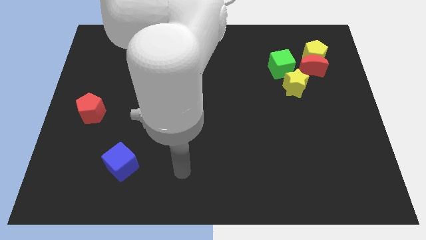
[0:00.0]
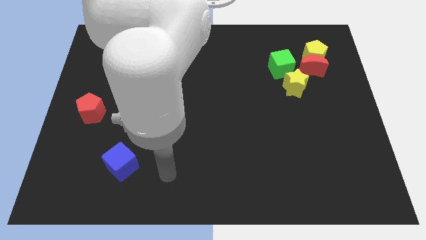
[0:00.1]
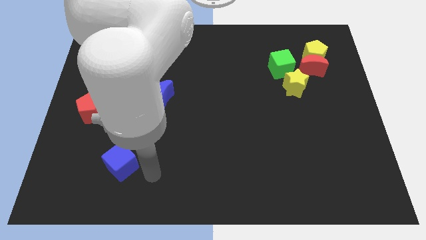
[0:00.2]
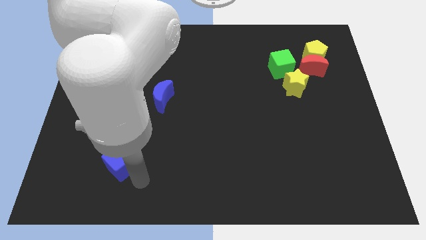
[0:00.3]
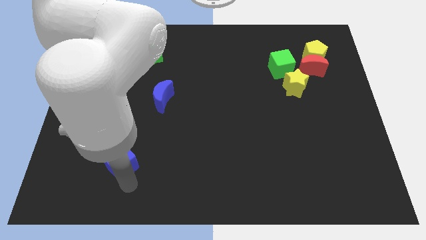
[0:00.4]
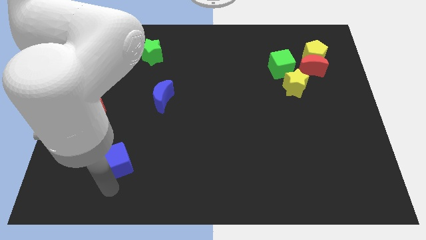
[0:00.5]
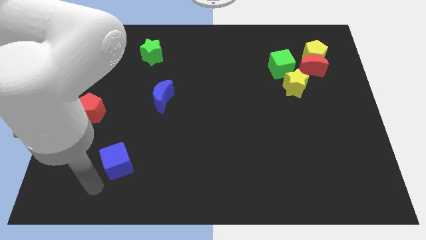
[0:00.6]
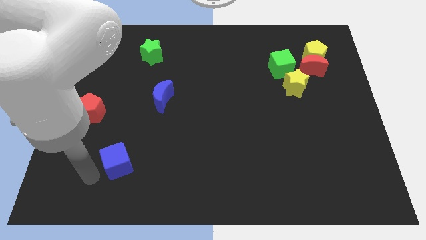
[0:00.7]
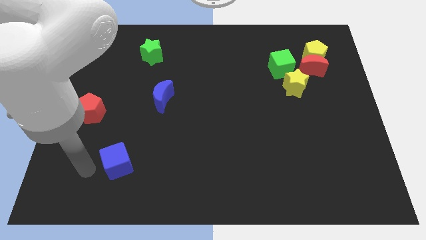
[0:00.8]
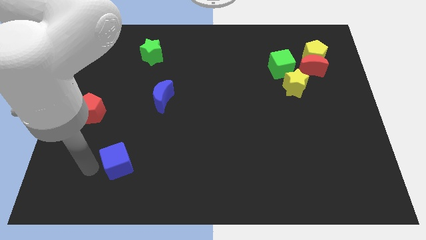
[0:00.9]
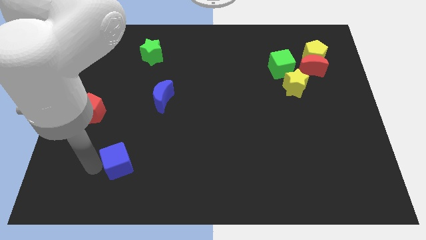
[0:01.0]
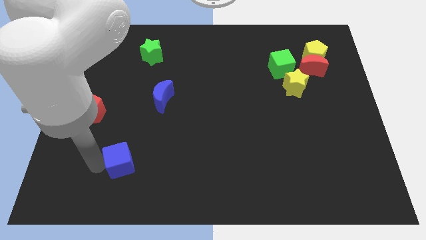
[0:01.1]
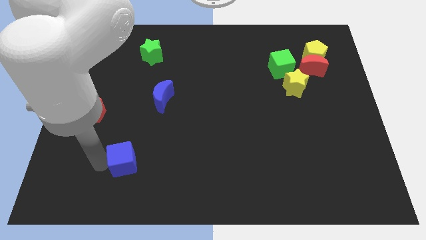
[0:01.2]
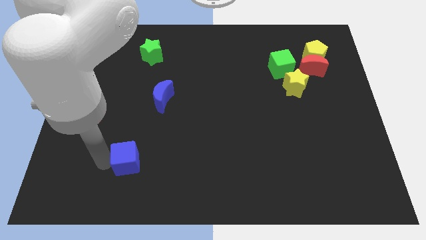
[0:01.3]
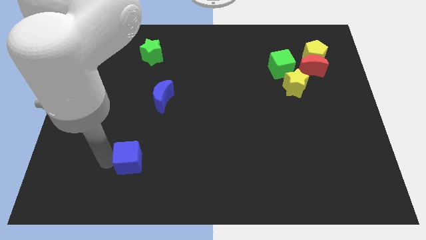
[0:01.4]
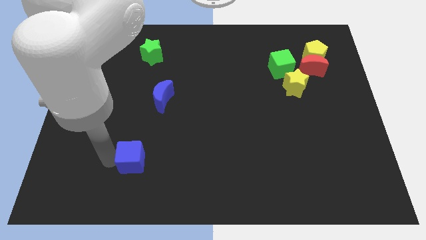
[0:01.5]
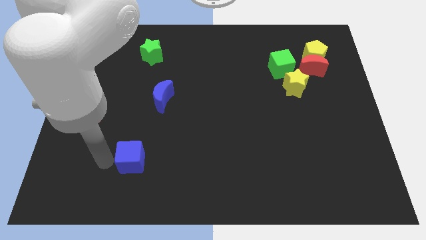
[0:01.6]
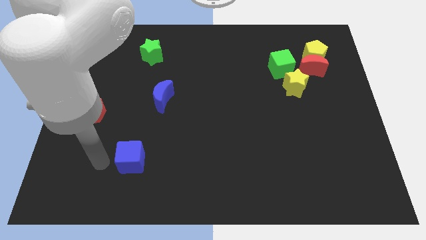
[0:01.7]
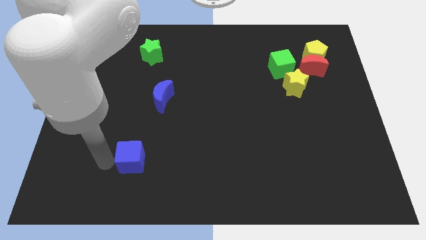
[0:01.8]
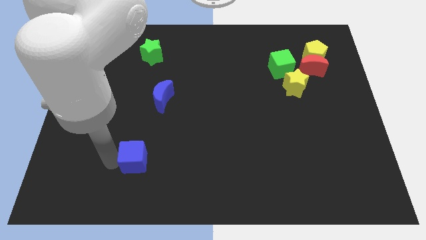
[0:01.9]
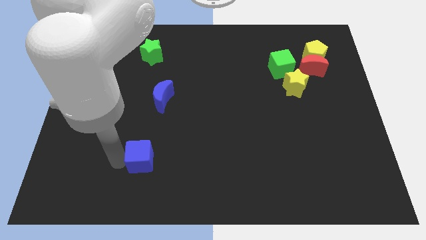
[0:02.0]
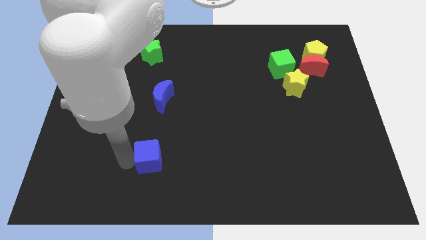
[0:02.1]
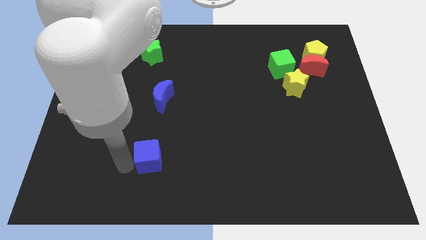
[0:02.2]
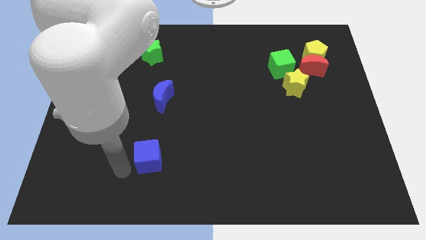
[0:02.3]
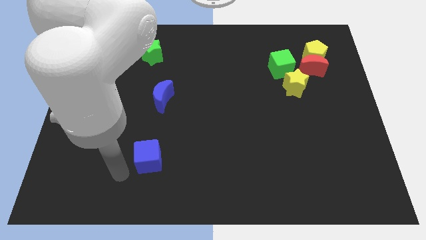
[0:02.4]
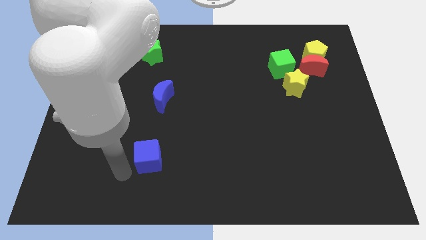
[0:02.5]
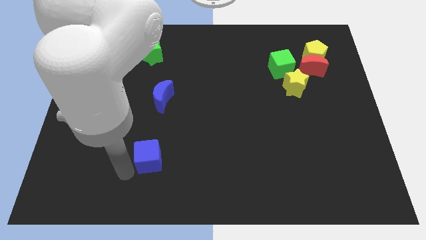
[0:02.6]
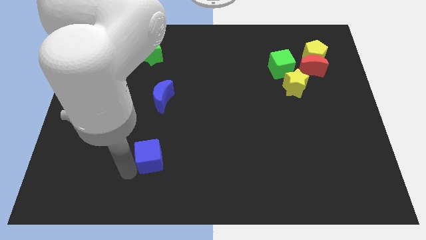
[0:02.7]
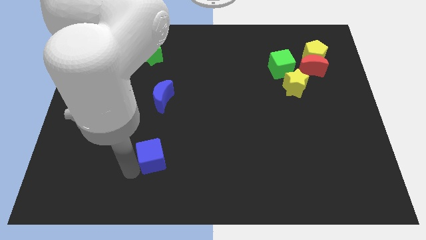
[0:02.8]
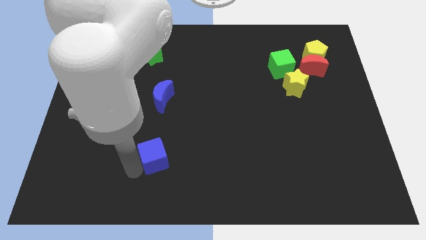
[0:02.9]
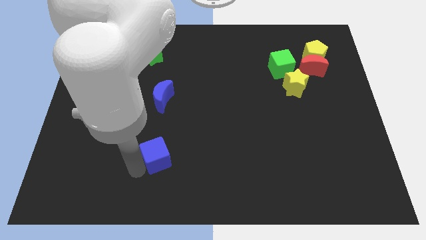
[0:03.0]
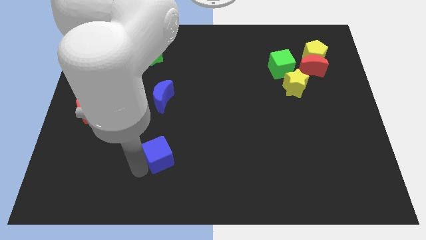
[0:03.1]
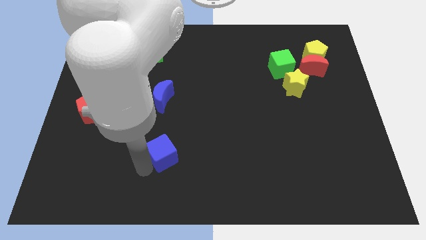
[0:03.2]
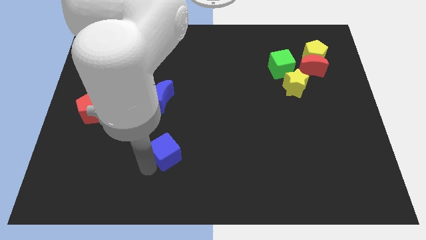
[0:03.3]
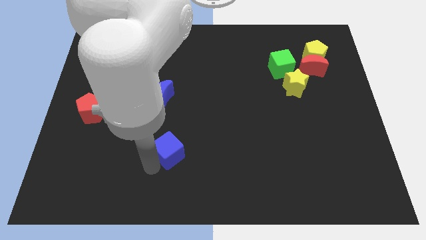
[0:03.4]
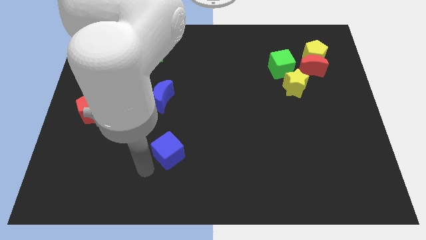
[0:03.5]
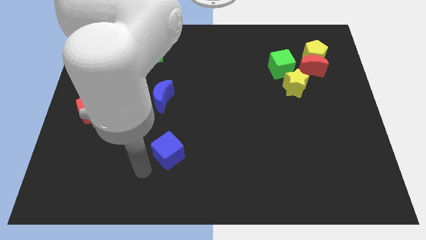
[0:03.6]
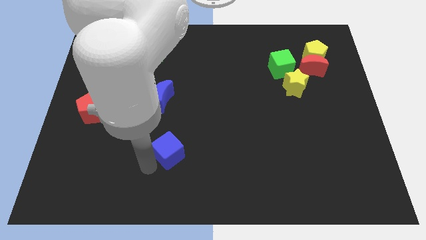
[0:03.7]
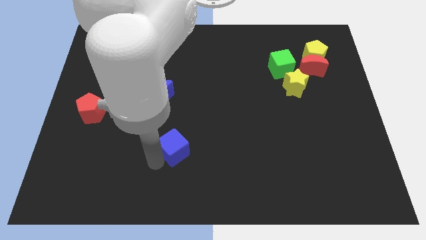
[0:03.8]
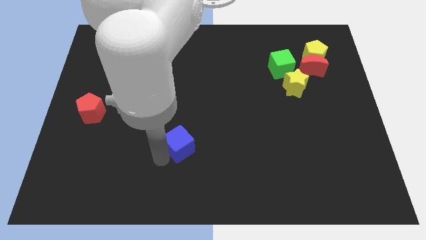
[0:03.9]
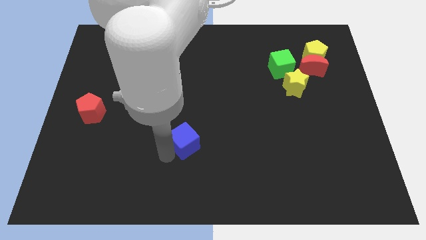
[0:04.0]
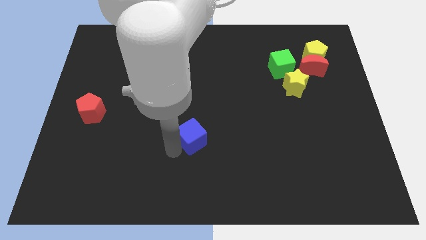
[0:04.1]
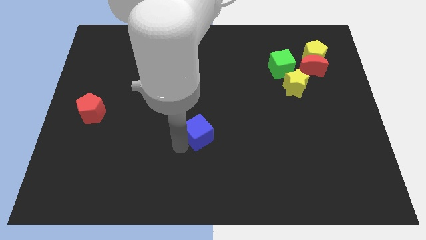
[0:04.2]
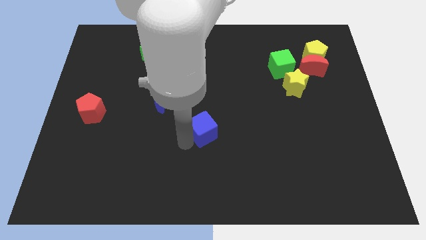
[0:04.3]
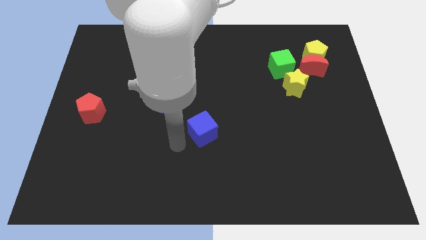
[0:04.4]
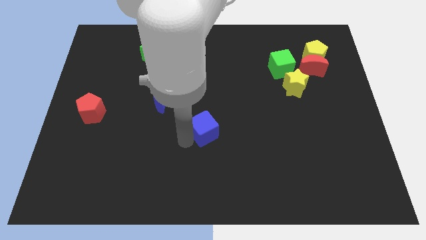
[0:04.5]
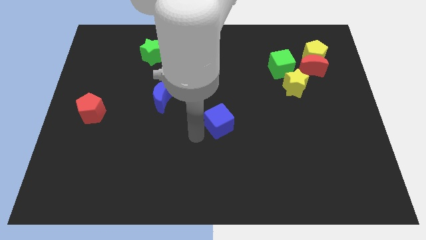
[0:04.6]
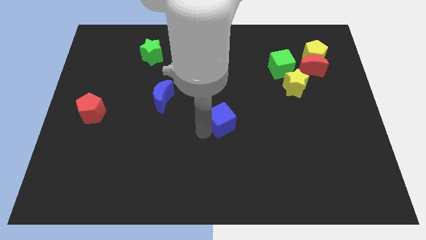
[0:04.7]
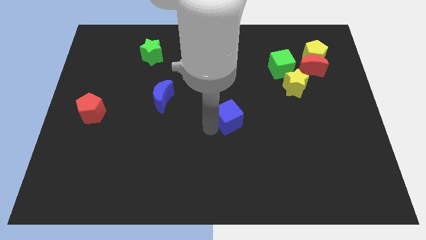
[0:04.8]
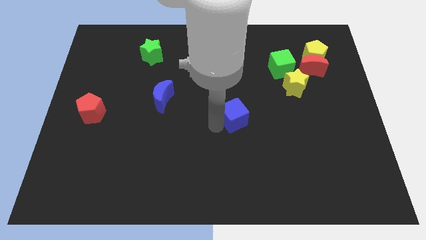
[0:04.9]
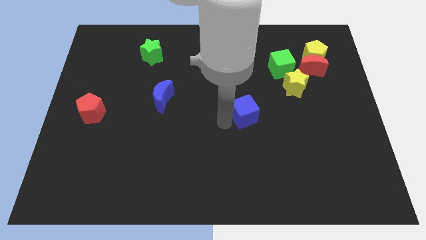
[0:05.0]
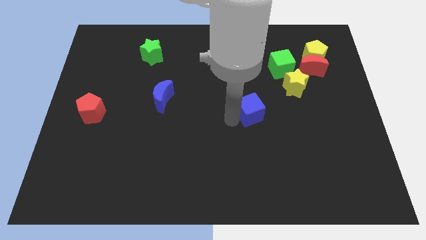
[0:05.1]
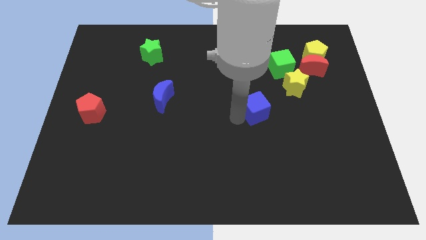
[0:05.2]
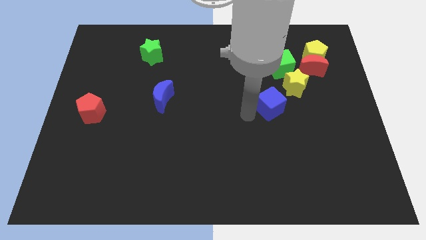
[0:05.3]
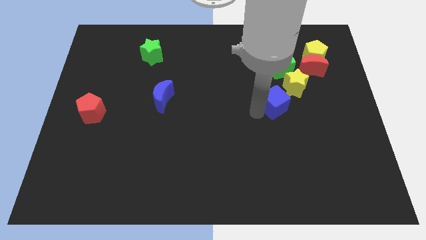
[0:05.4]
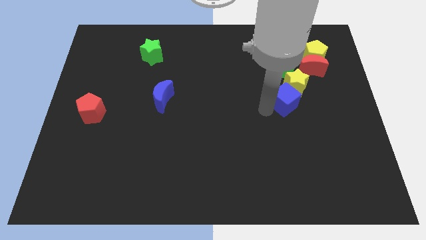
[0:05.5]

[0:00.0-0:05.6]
move the blue cube close to the yellow star

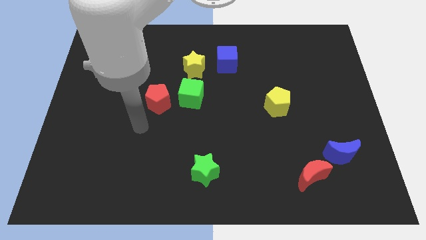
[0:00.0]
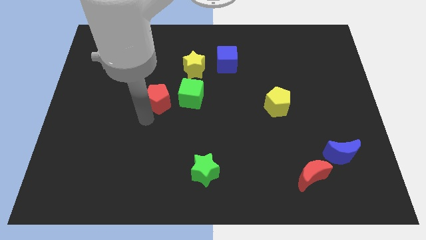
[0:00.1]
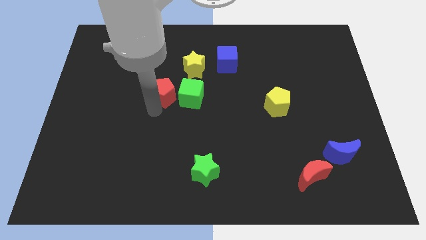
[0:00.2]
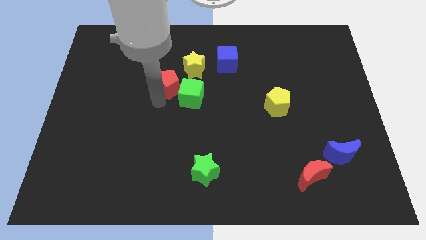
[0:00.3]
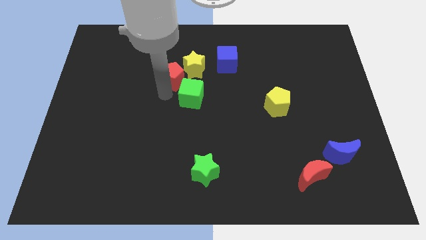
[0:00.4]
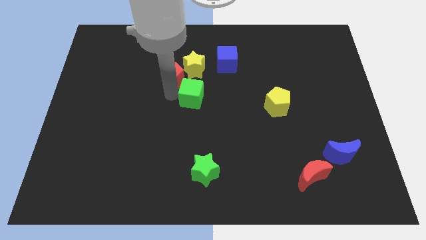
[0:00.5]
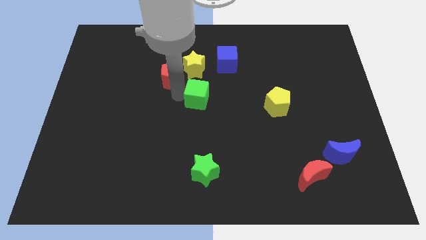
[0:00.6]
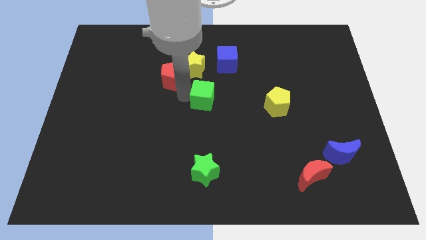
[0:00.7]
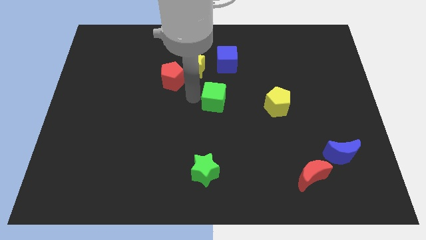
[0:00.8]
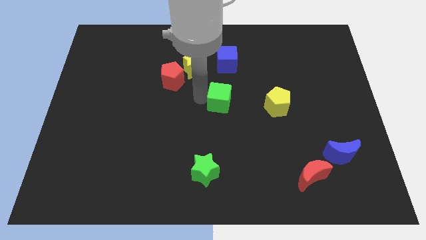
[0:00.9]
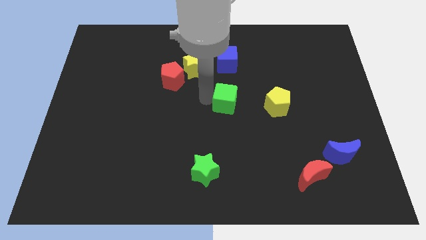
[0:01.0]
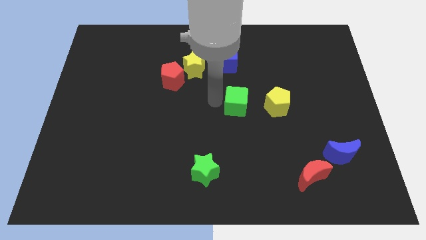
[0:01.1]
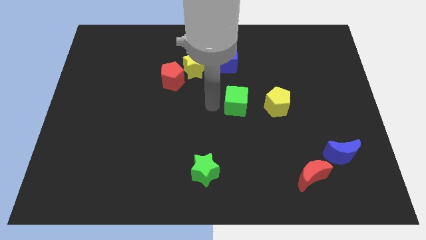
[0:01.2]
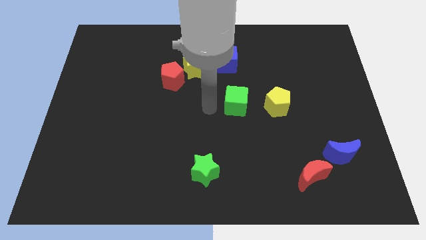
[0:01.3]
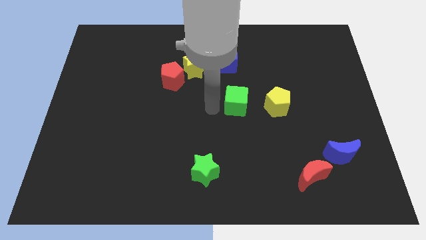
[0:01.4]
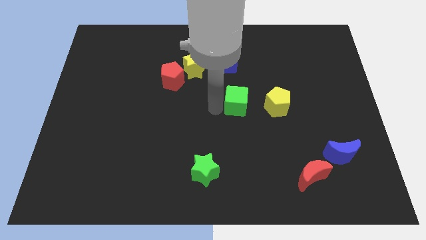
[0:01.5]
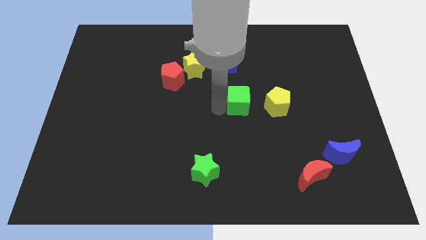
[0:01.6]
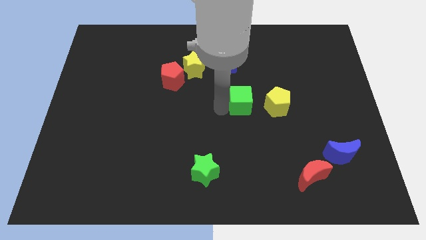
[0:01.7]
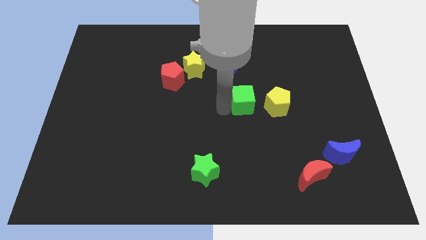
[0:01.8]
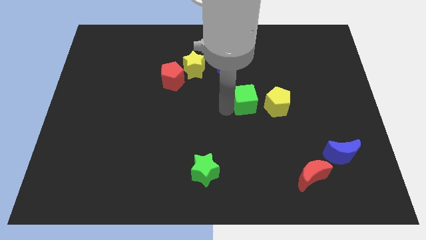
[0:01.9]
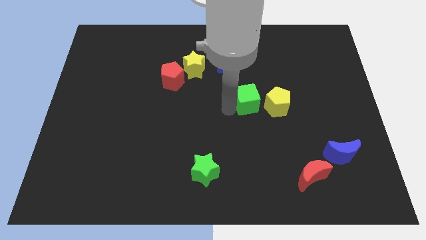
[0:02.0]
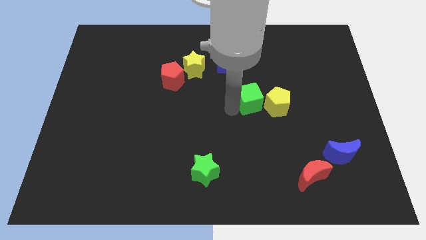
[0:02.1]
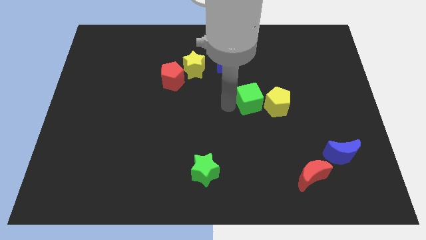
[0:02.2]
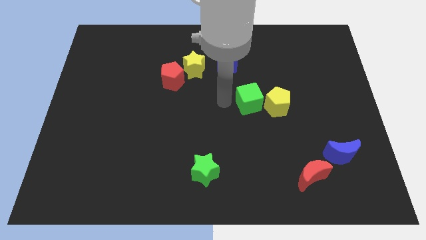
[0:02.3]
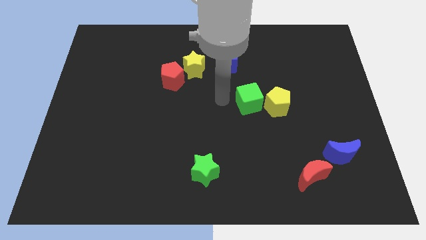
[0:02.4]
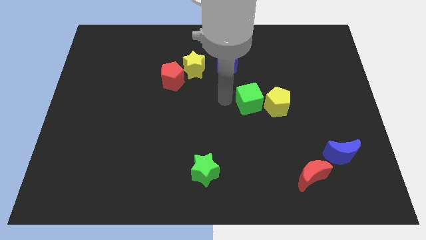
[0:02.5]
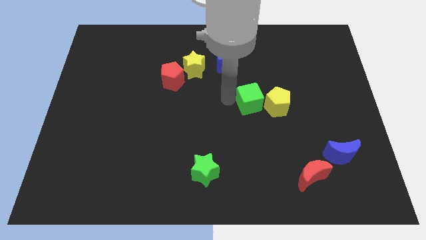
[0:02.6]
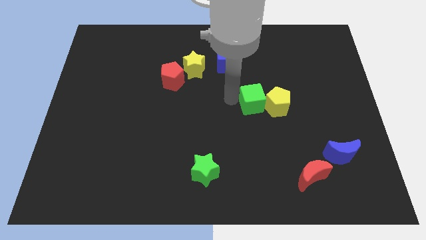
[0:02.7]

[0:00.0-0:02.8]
move the green cube towards the yellow pentagon
